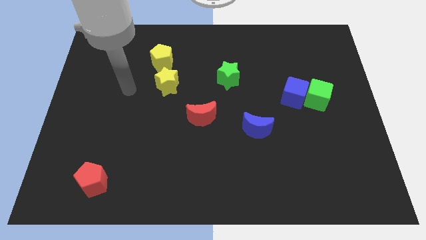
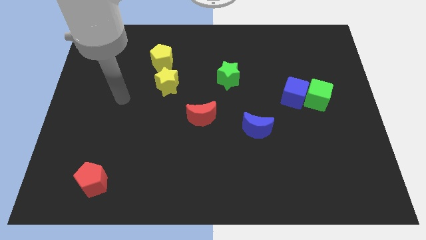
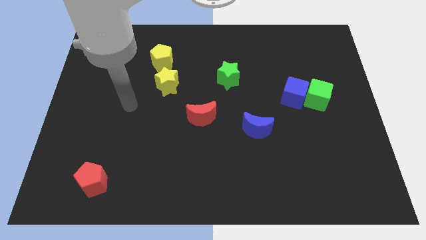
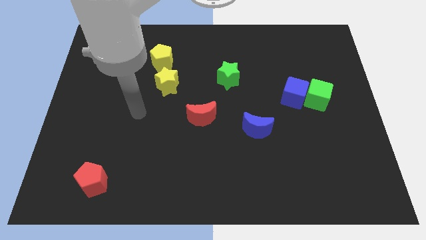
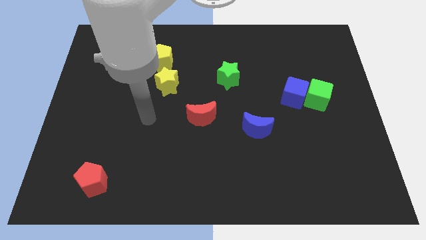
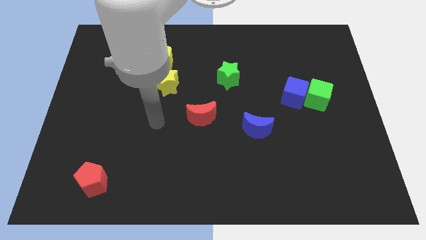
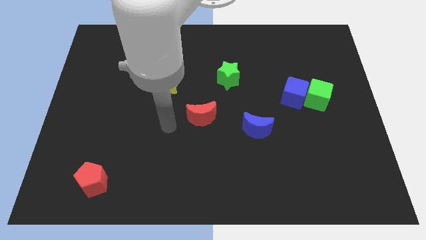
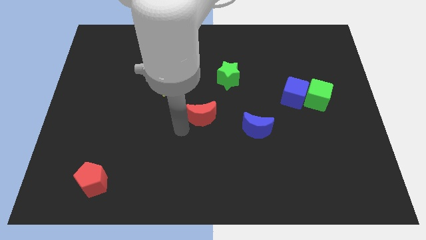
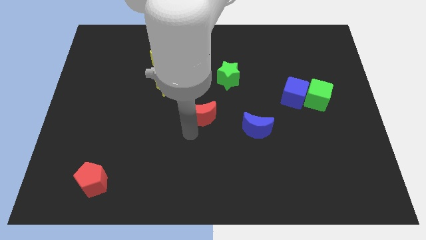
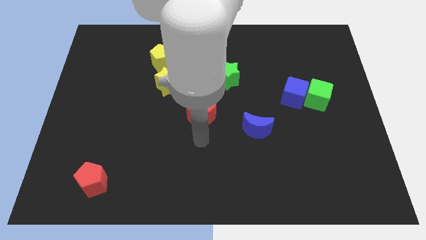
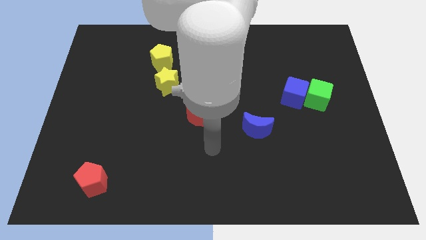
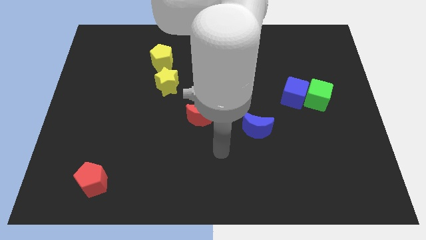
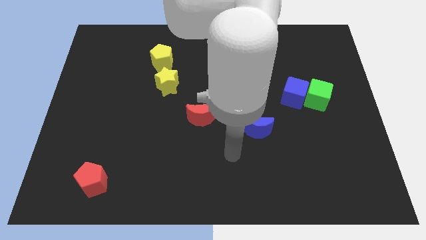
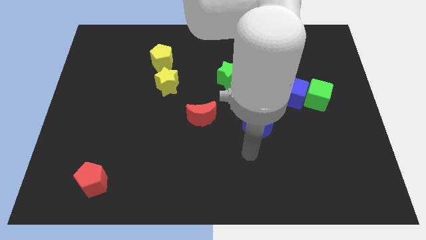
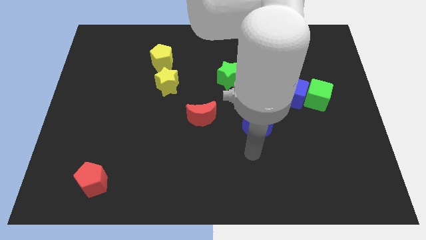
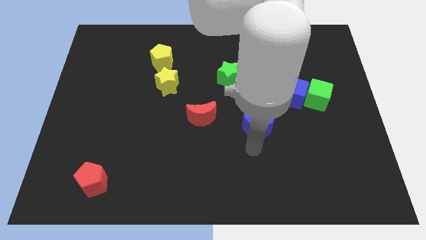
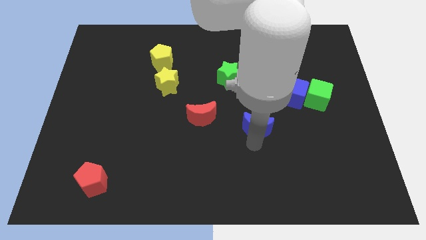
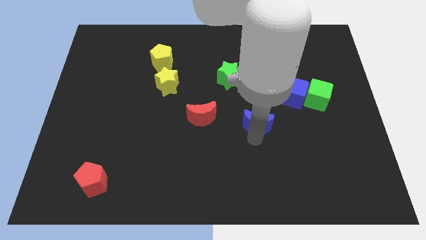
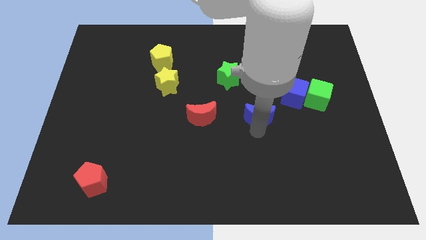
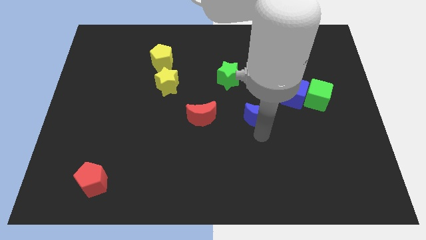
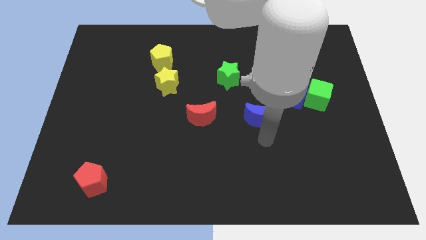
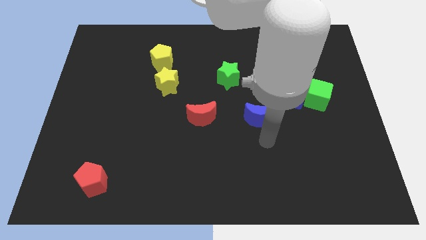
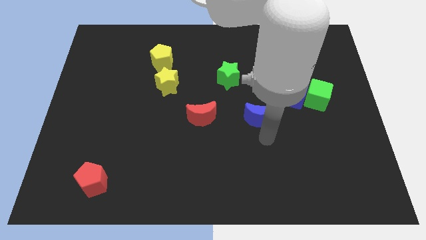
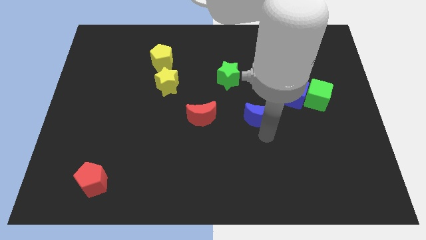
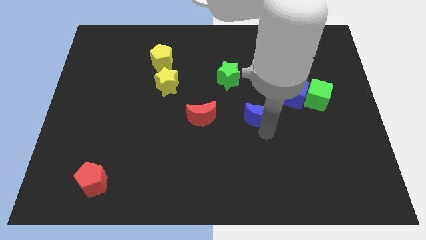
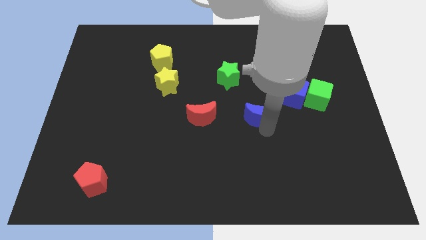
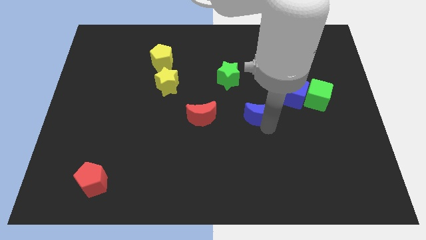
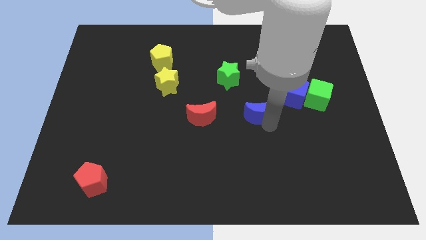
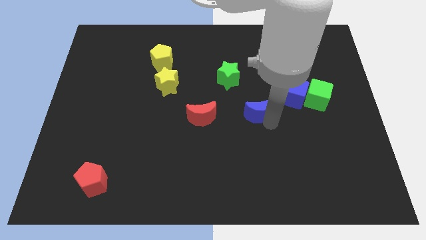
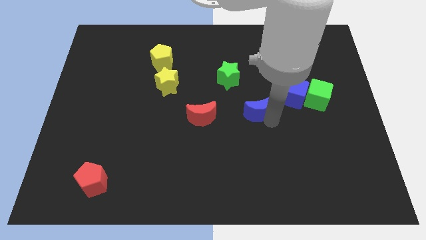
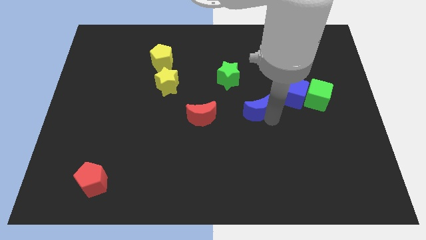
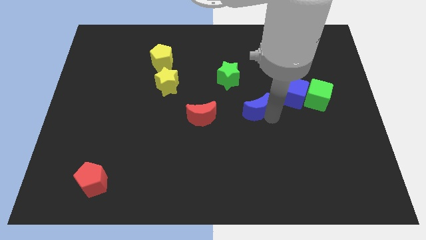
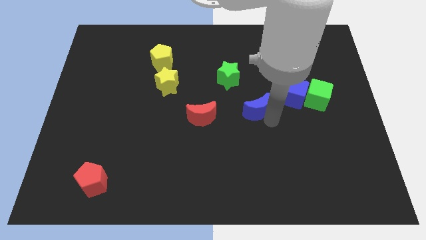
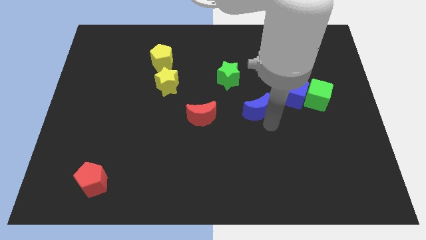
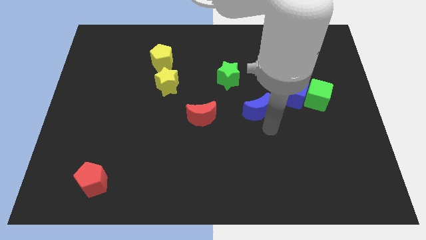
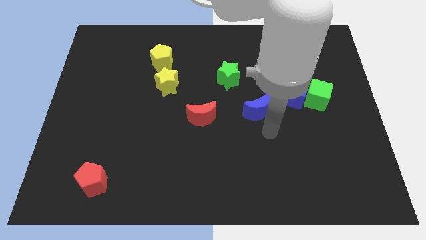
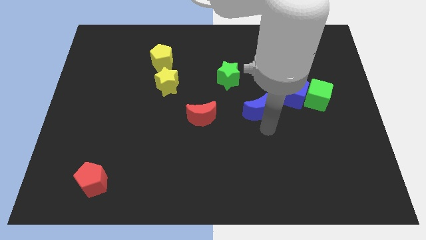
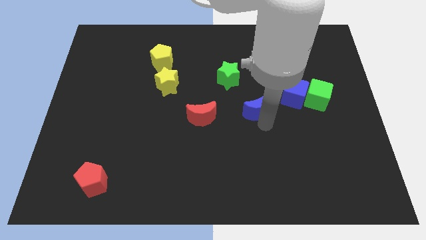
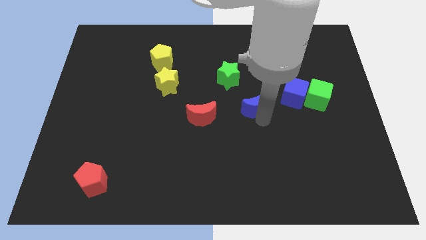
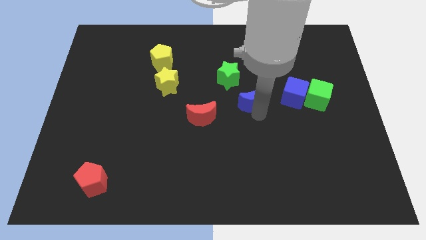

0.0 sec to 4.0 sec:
slightly slide the blue moon upwards

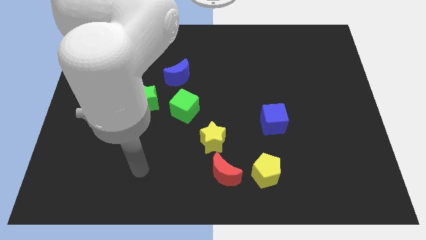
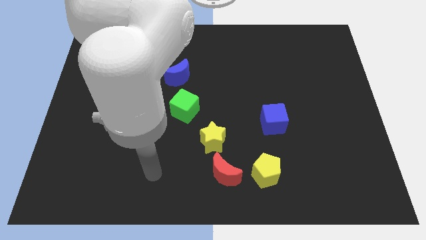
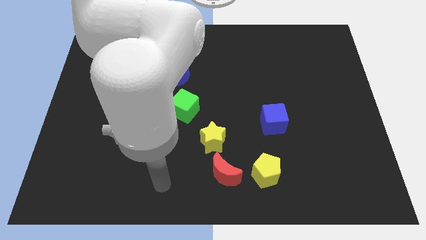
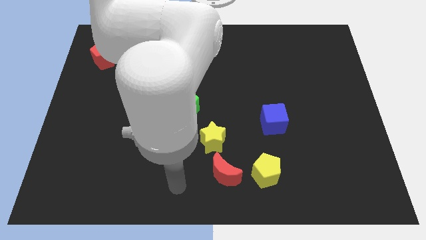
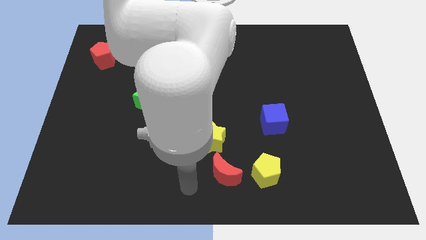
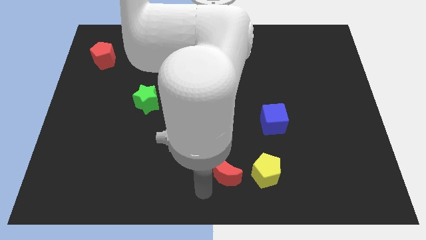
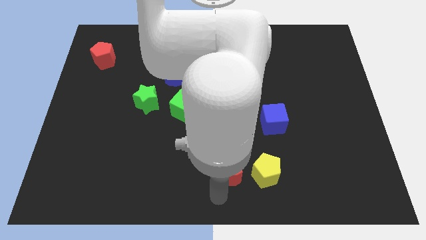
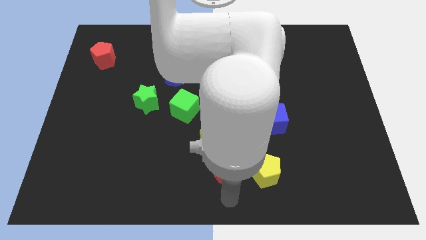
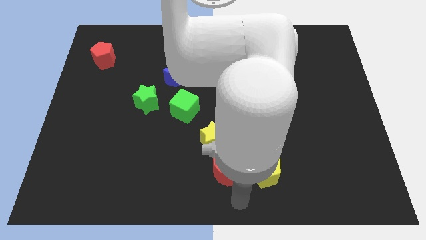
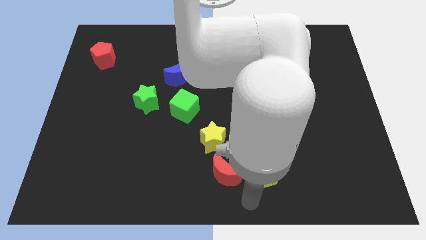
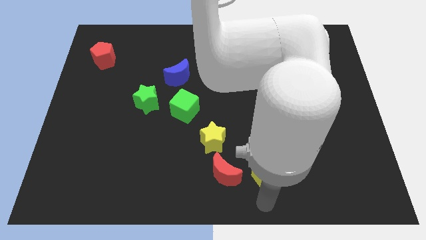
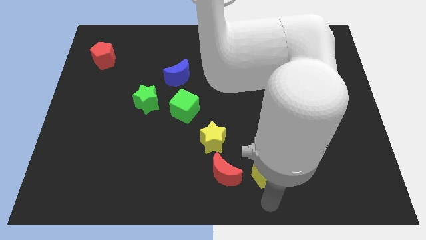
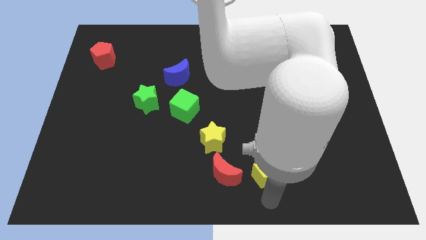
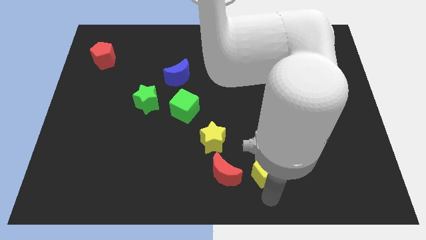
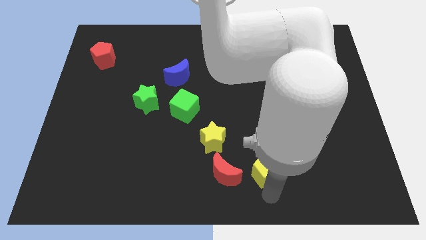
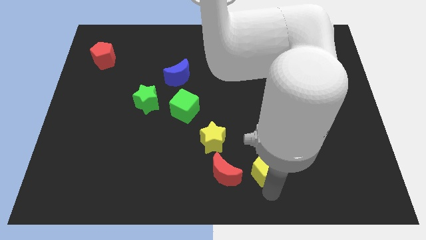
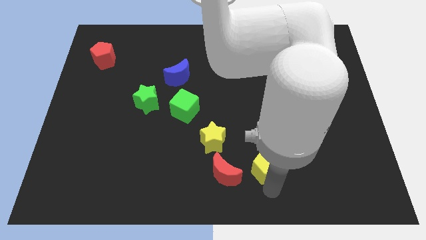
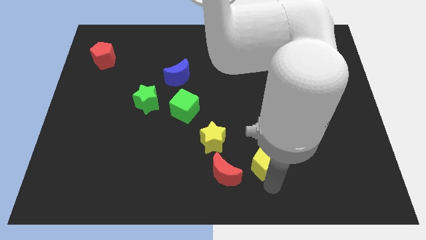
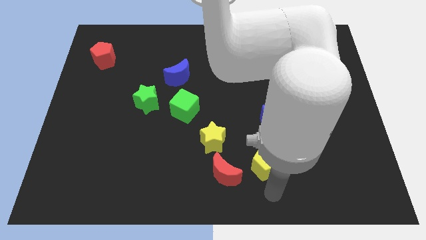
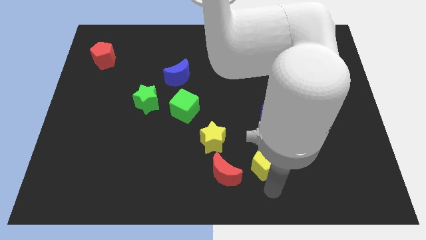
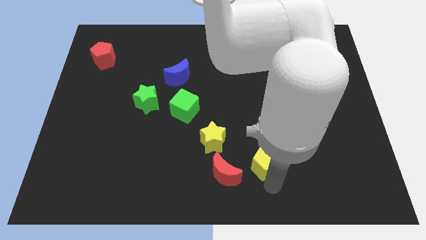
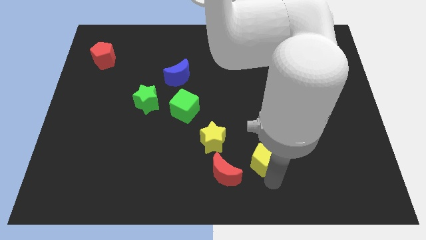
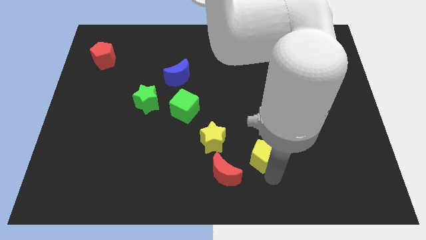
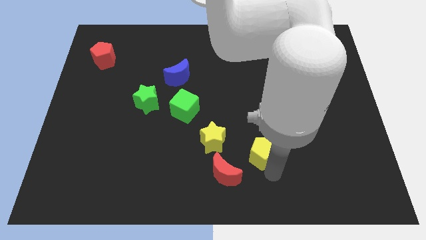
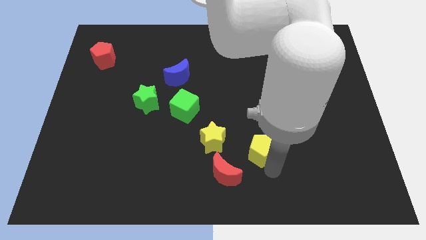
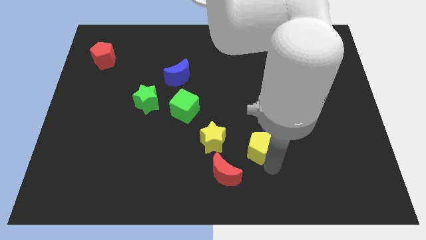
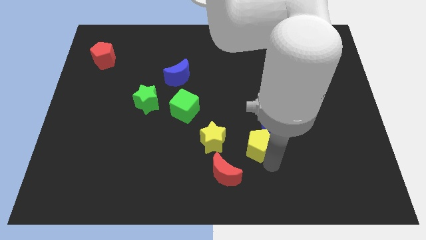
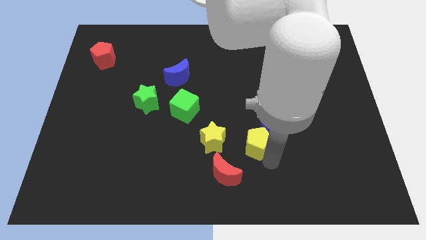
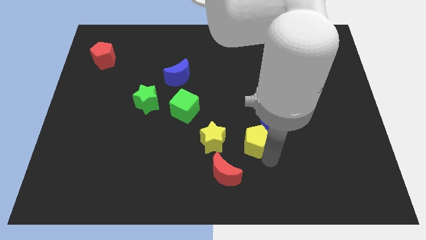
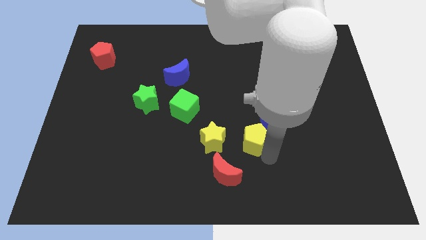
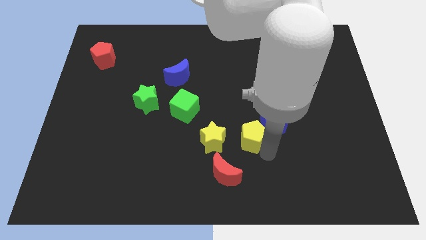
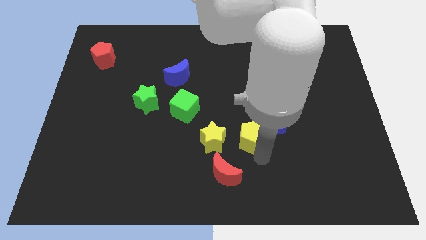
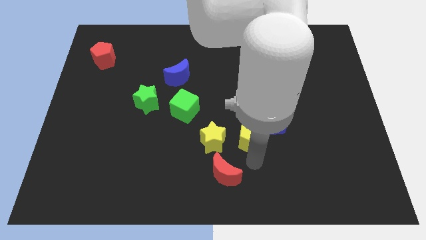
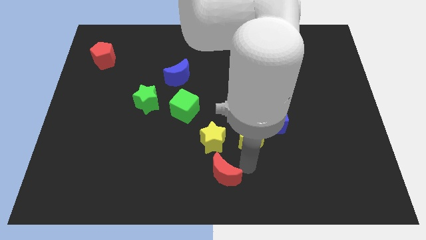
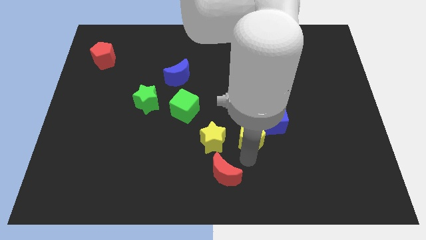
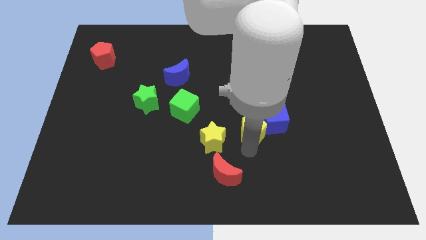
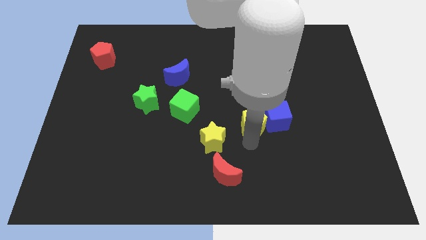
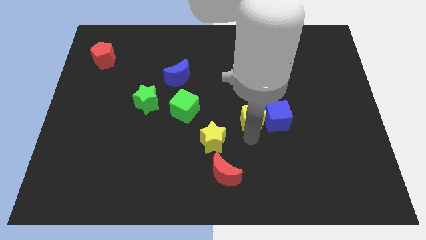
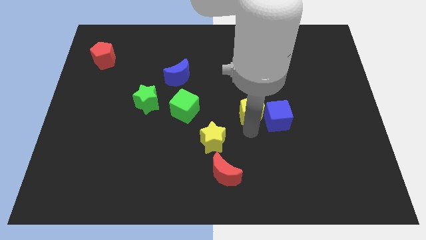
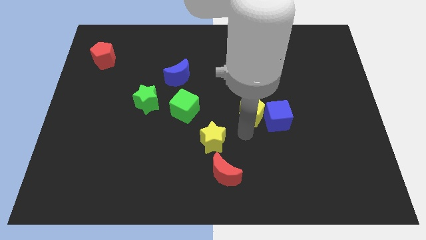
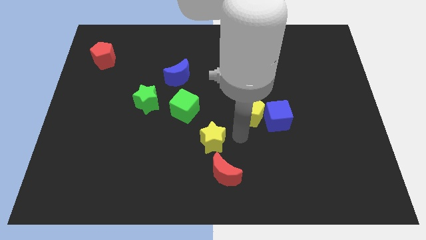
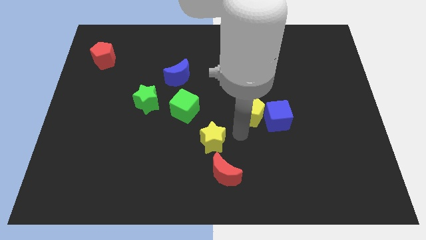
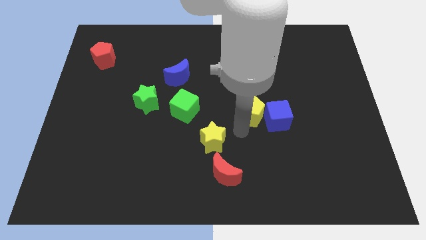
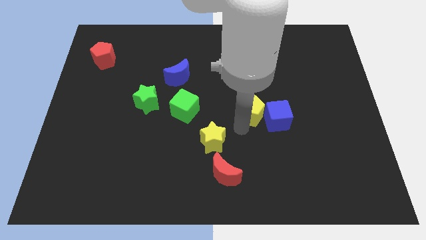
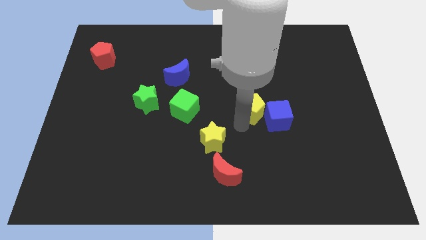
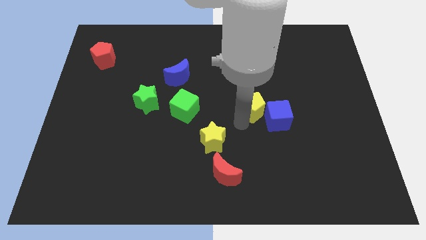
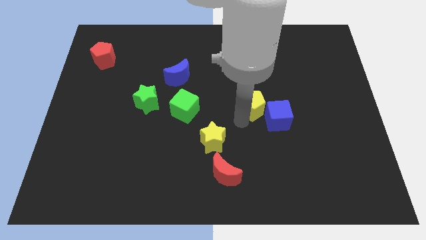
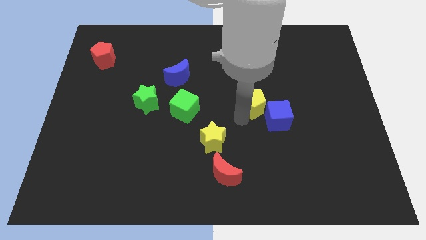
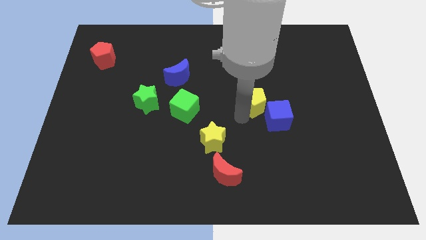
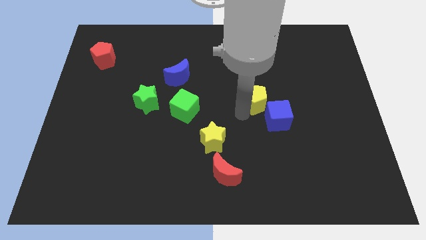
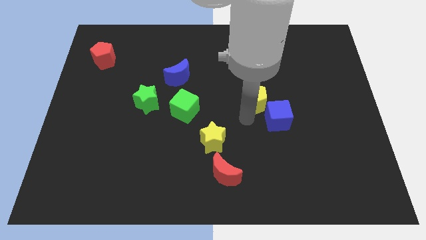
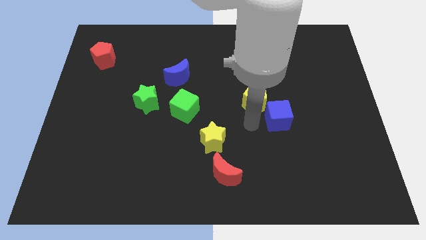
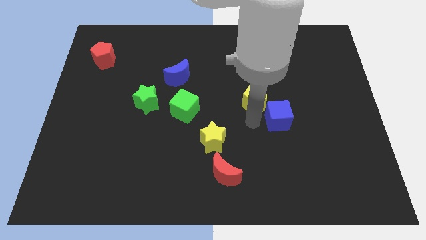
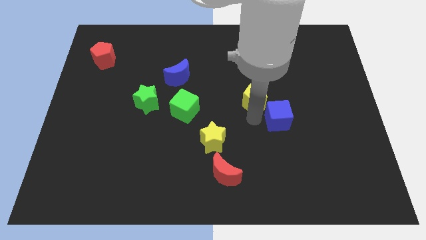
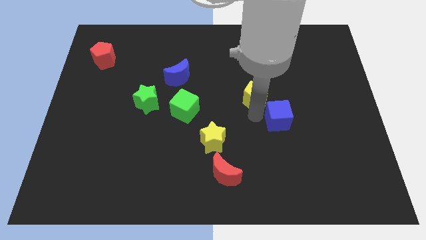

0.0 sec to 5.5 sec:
push the yellow pentagon up
